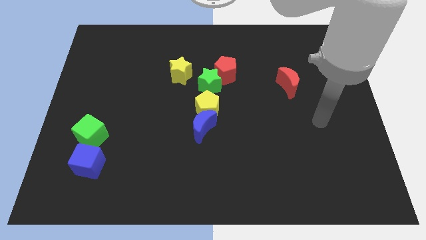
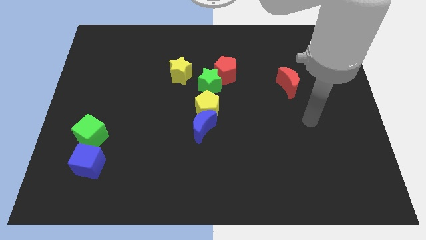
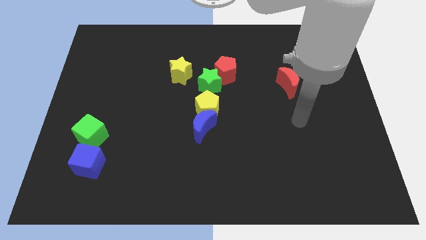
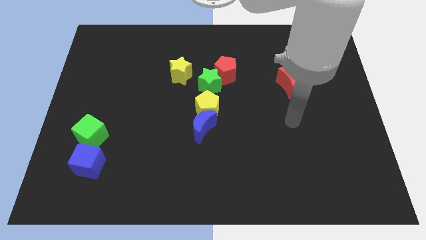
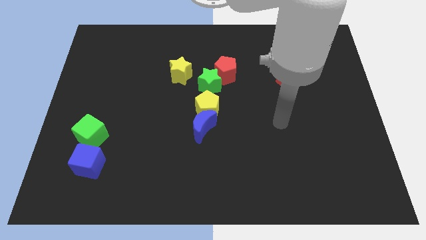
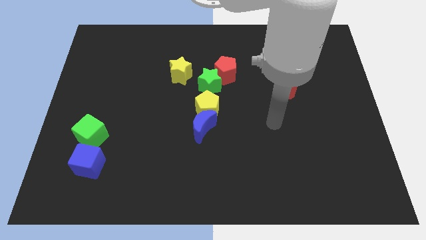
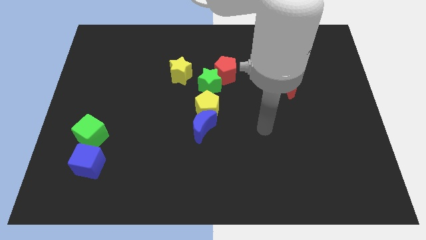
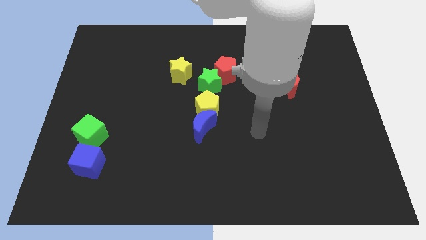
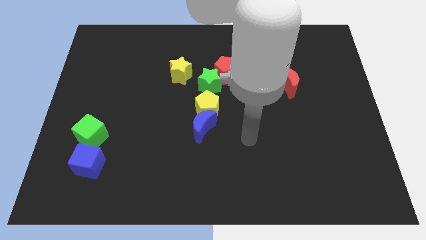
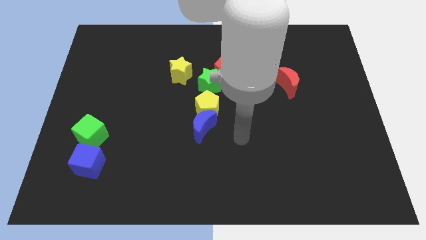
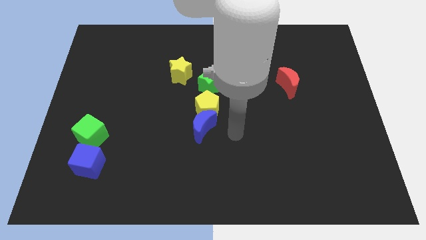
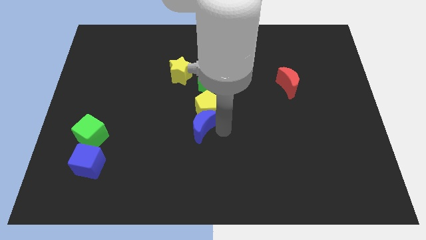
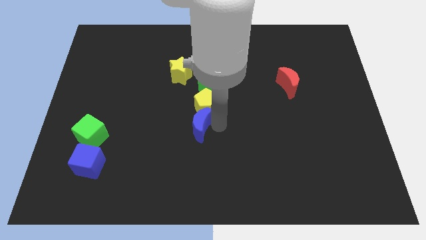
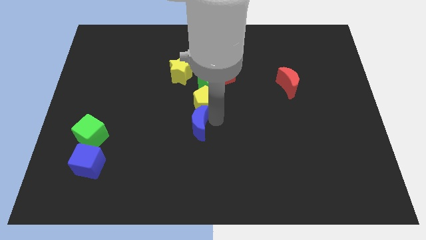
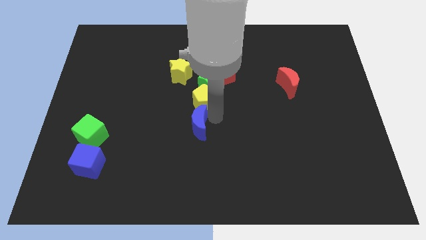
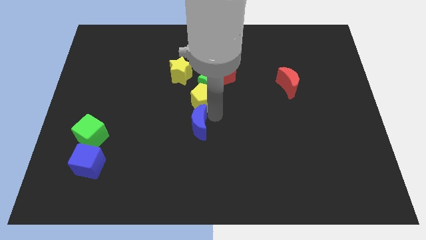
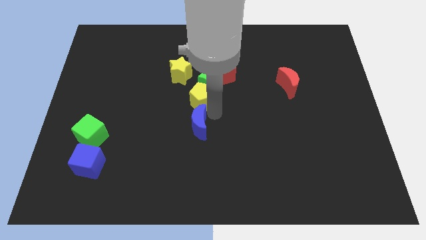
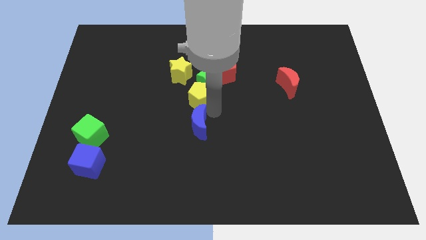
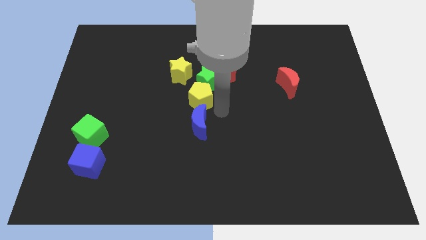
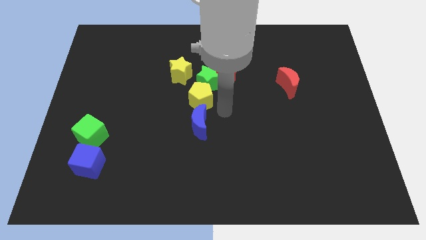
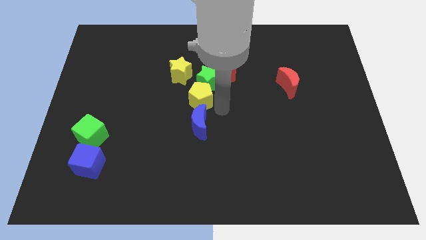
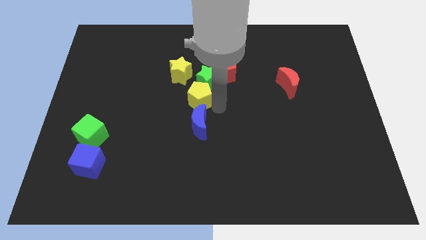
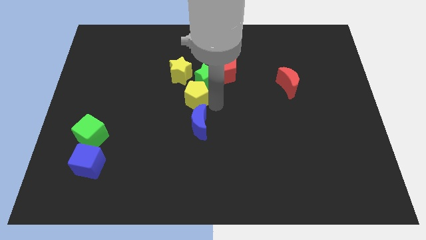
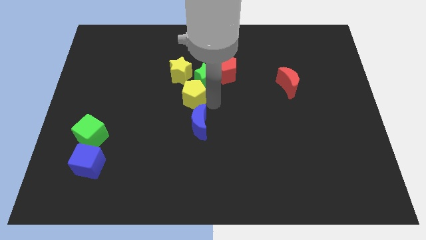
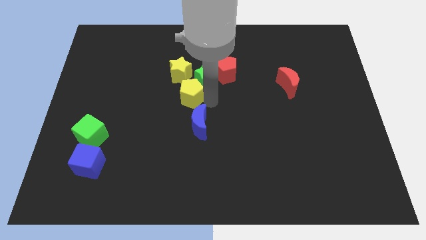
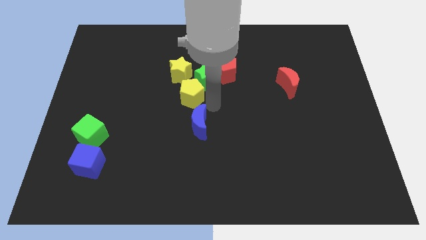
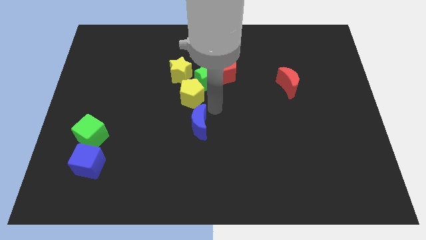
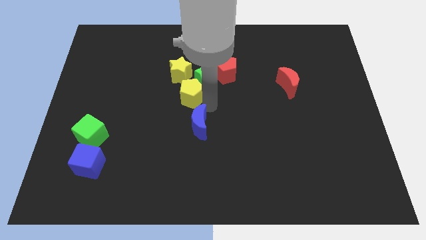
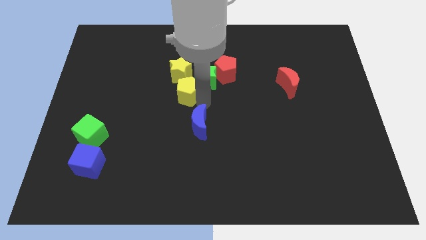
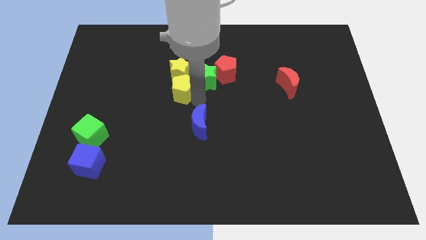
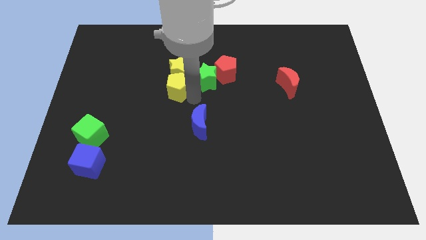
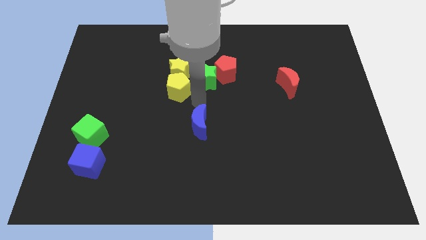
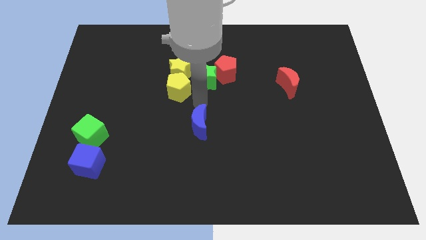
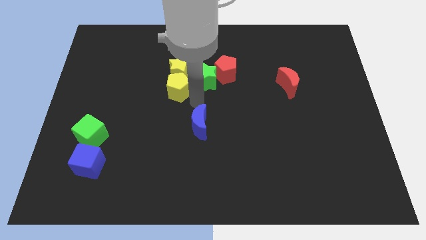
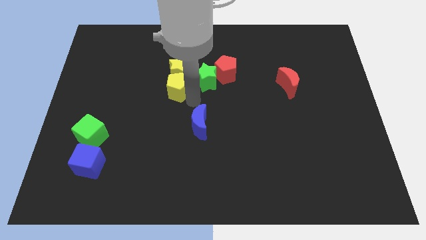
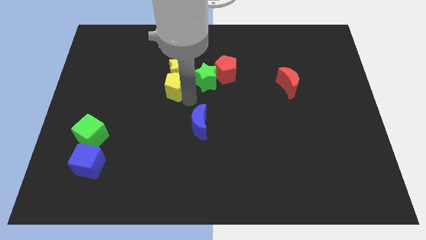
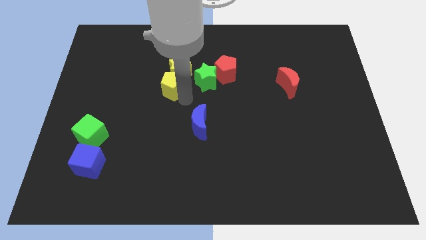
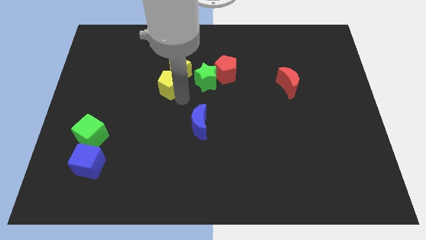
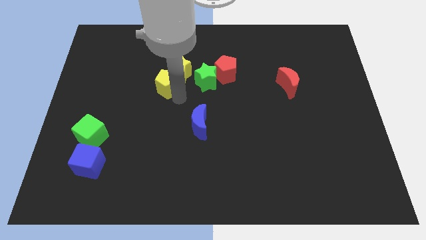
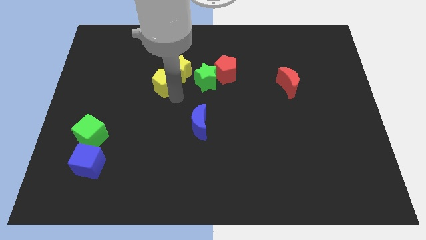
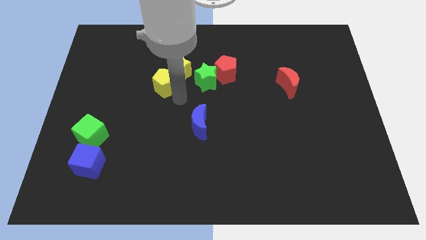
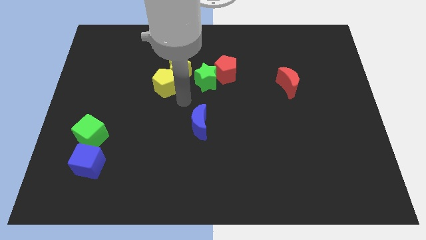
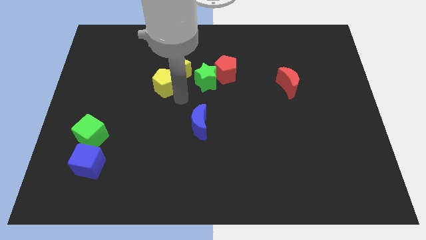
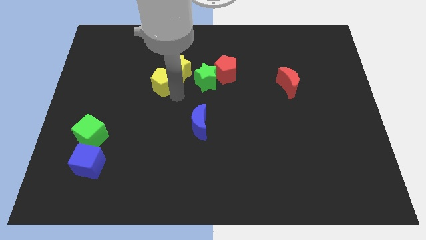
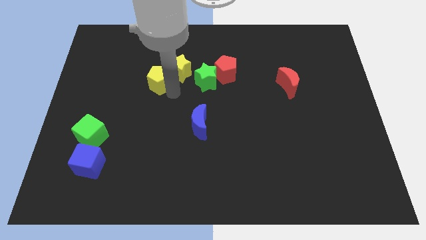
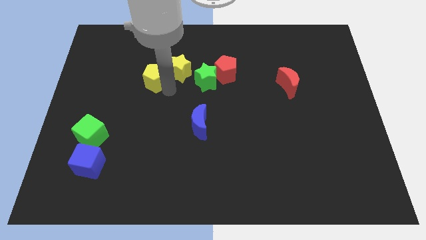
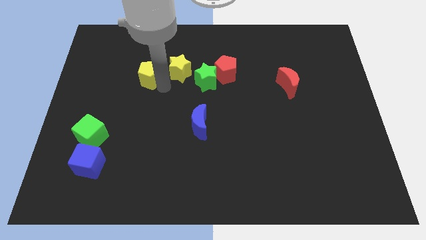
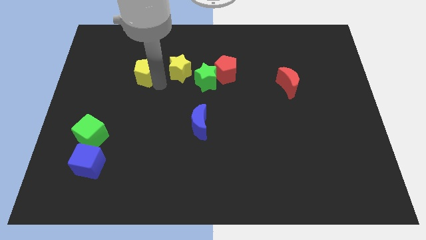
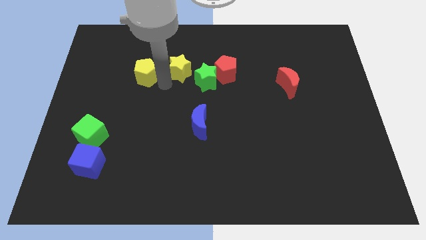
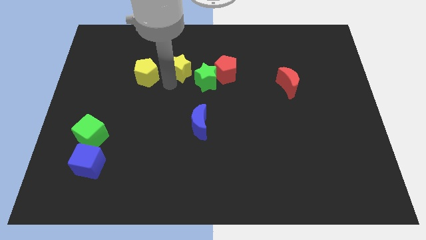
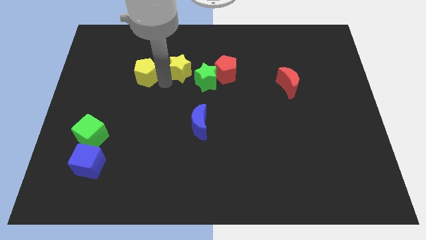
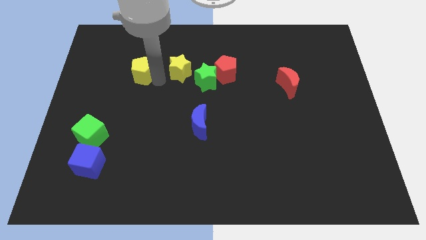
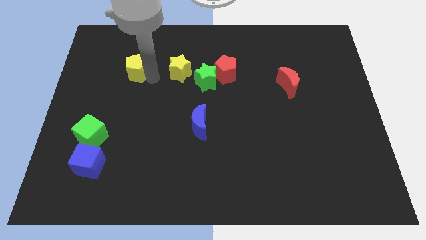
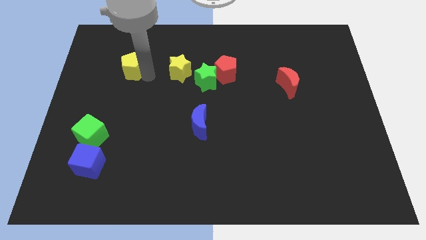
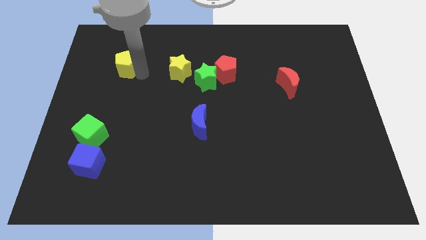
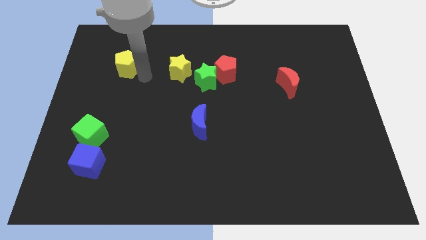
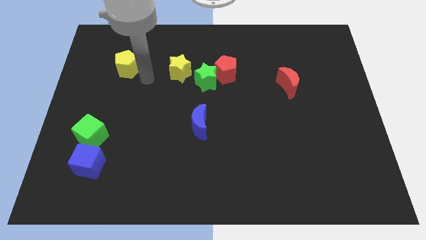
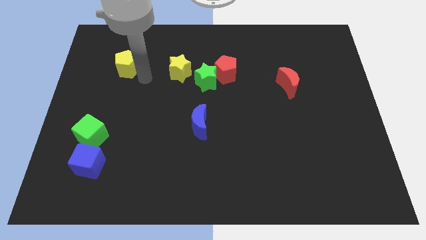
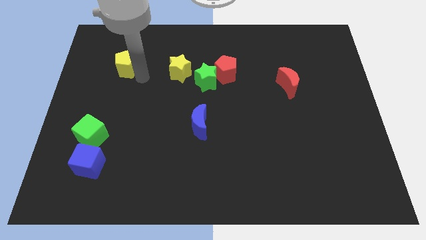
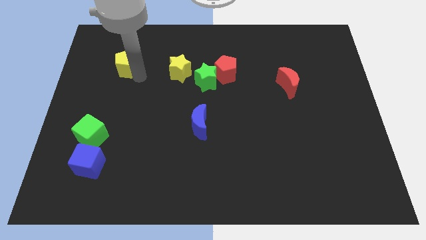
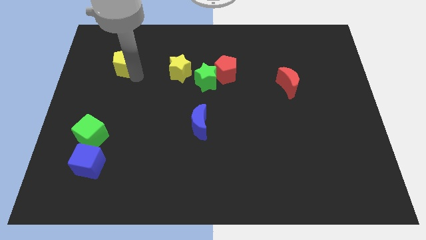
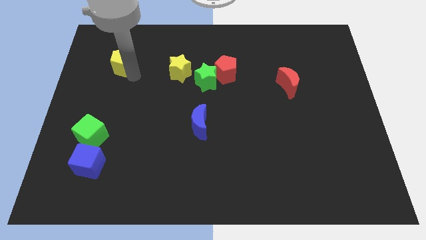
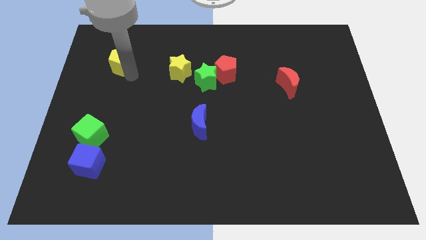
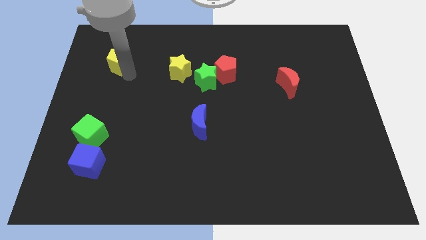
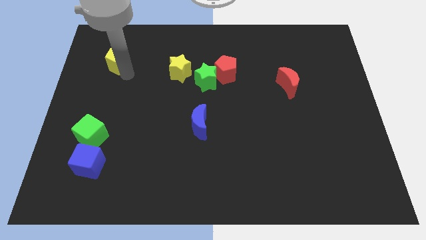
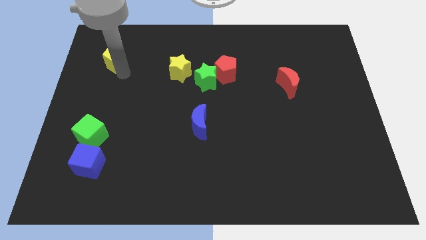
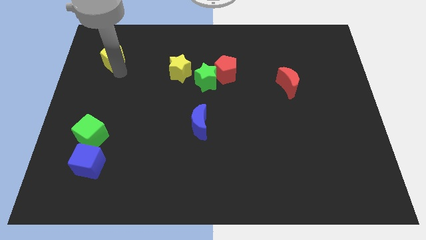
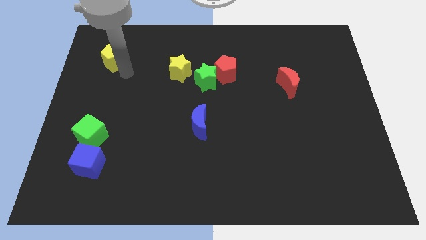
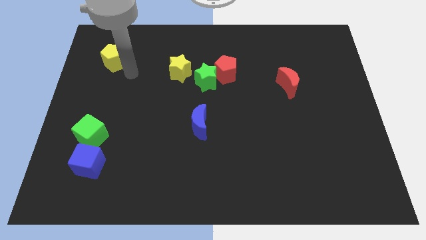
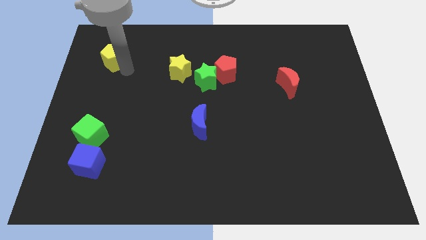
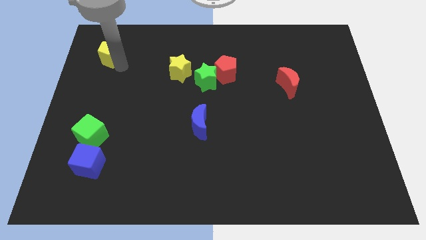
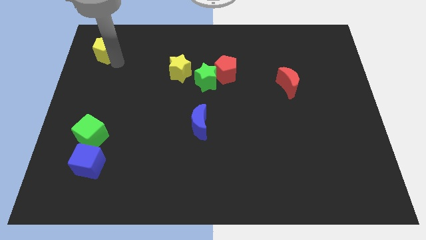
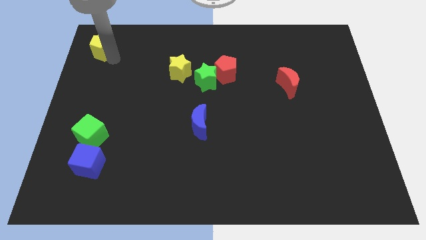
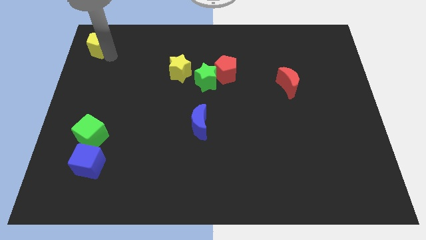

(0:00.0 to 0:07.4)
slide the yellow pentagon to the top left
